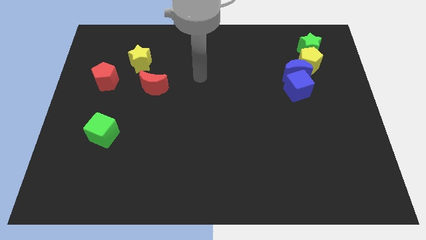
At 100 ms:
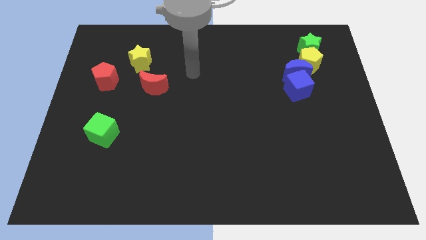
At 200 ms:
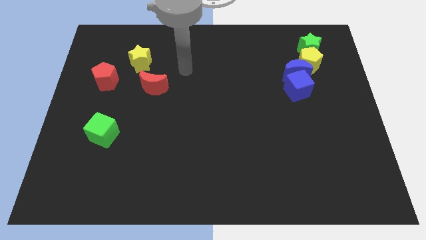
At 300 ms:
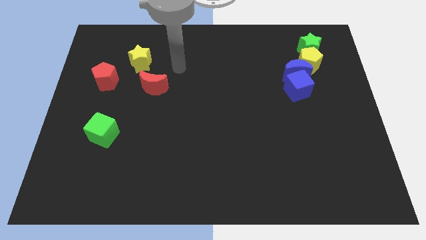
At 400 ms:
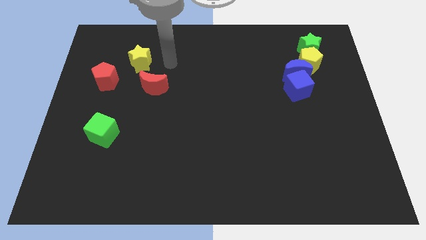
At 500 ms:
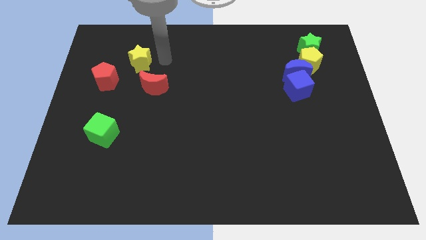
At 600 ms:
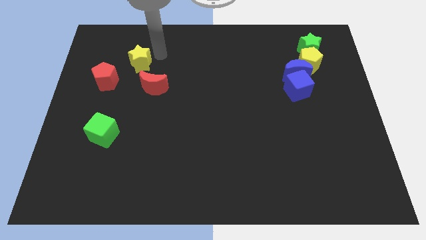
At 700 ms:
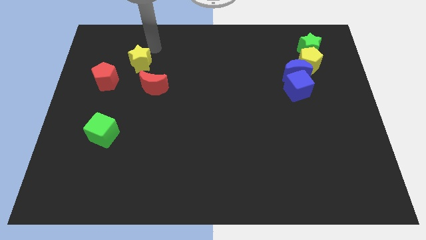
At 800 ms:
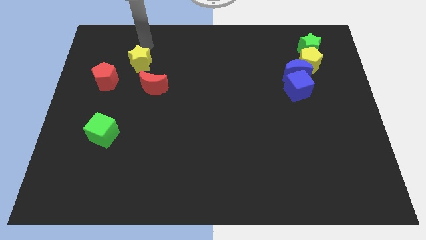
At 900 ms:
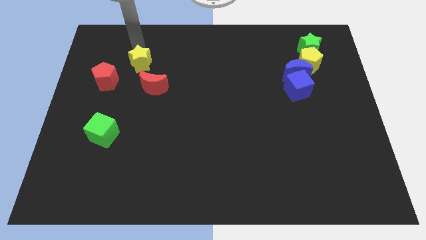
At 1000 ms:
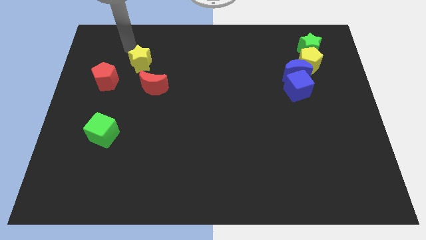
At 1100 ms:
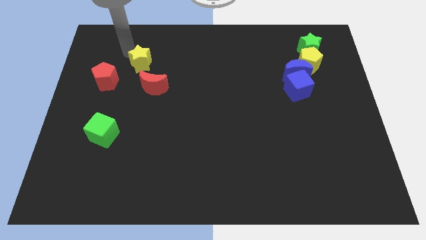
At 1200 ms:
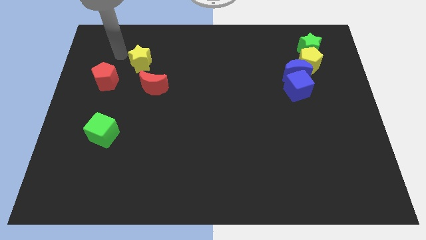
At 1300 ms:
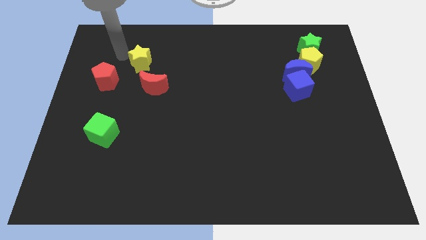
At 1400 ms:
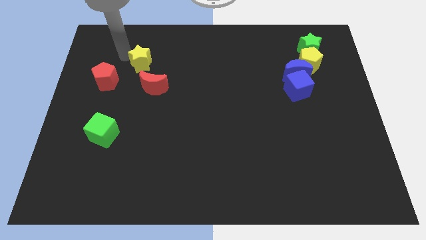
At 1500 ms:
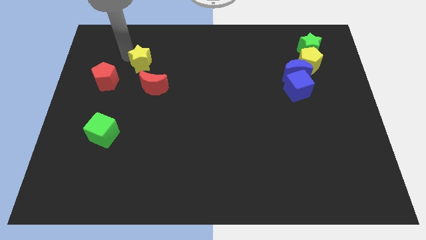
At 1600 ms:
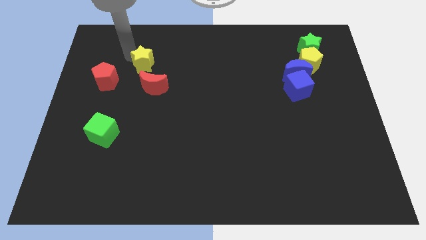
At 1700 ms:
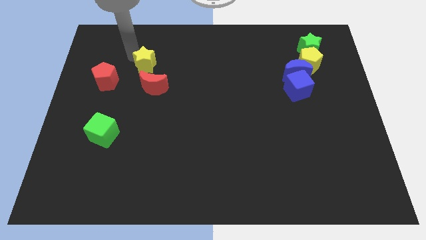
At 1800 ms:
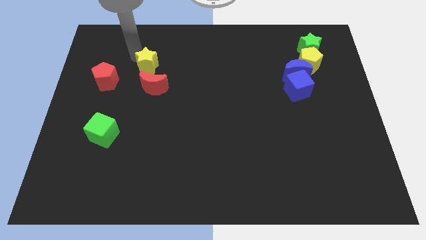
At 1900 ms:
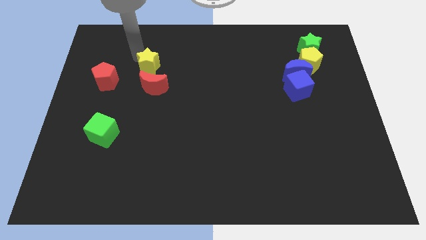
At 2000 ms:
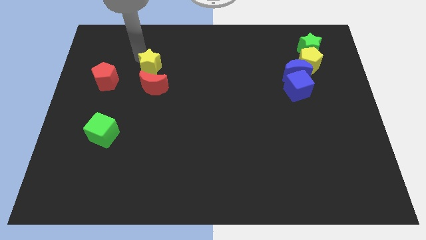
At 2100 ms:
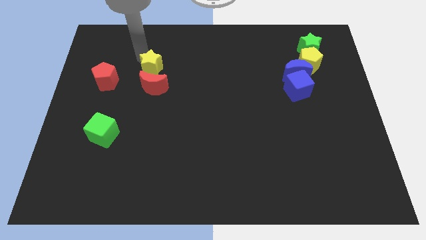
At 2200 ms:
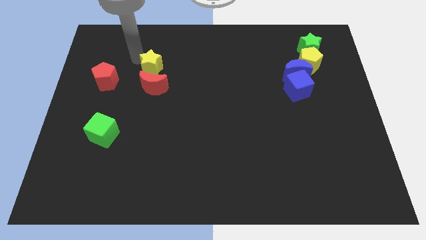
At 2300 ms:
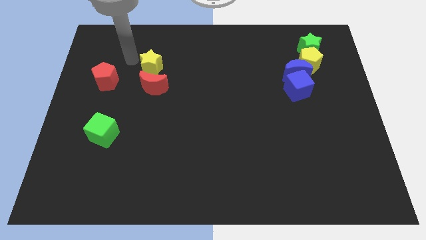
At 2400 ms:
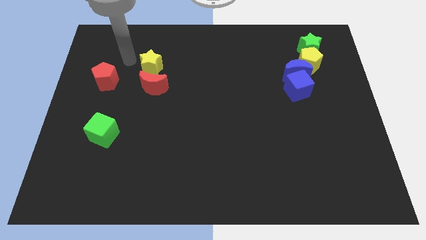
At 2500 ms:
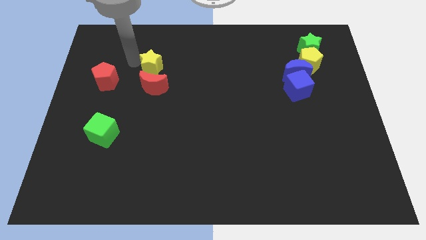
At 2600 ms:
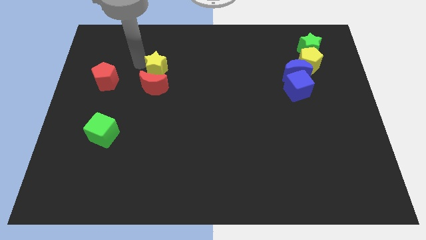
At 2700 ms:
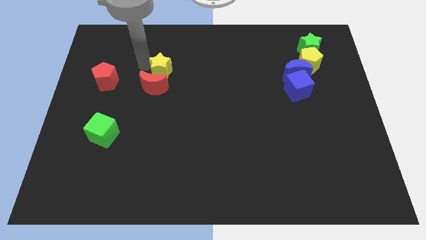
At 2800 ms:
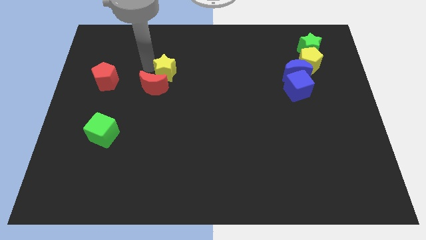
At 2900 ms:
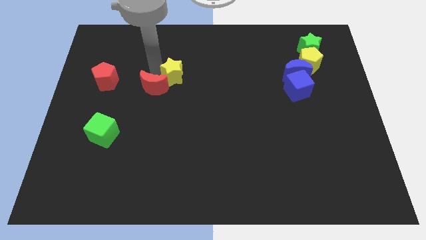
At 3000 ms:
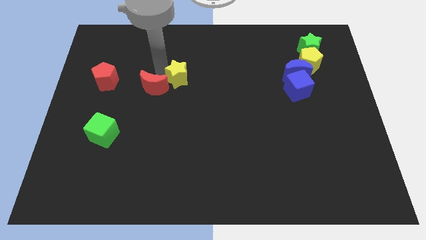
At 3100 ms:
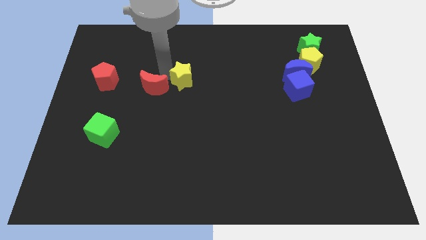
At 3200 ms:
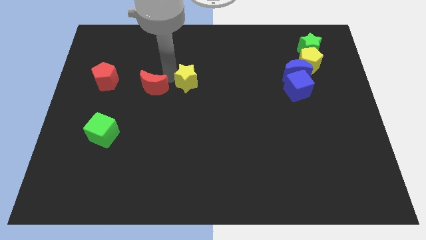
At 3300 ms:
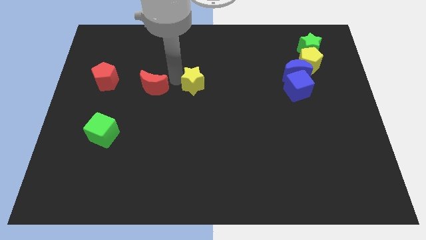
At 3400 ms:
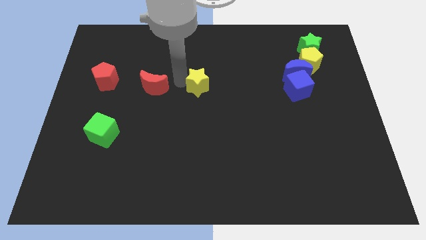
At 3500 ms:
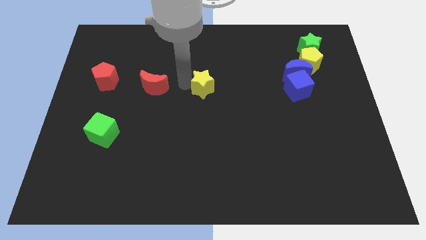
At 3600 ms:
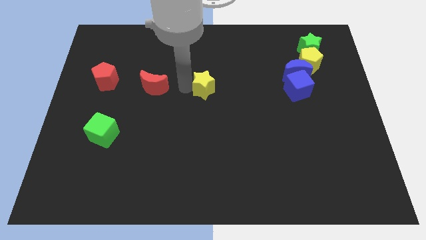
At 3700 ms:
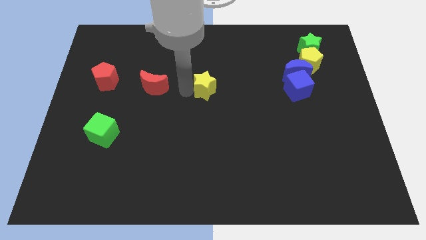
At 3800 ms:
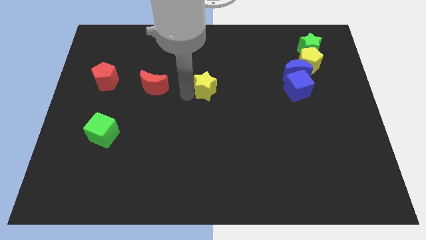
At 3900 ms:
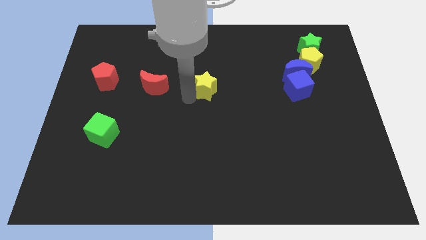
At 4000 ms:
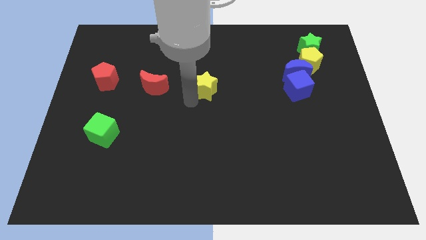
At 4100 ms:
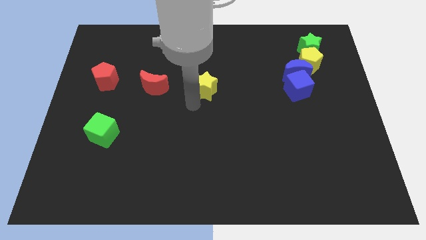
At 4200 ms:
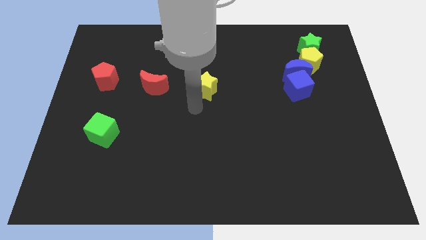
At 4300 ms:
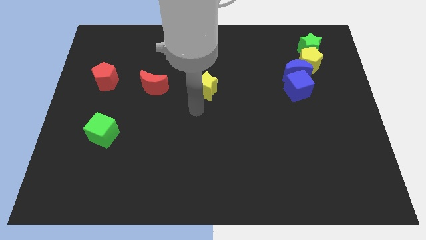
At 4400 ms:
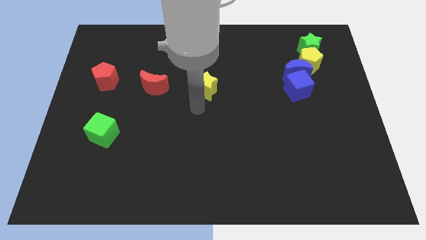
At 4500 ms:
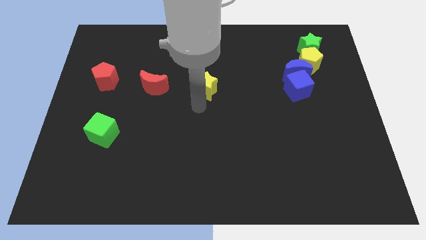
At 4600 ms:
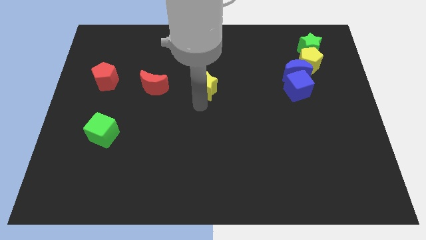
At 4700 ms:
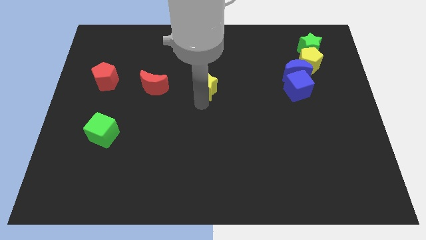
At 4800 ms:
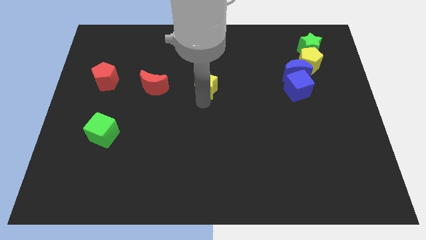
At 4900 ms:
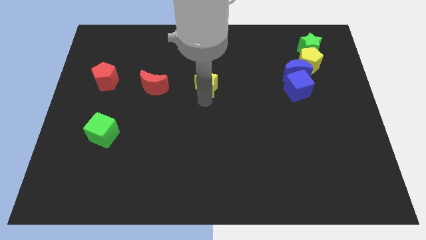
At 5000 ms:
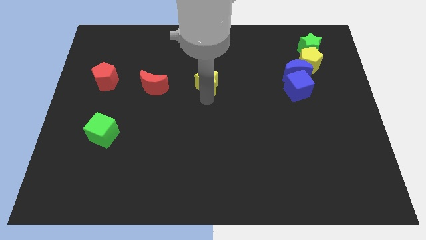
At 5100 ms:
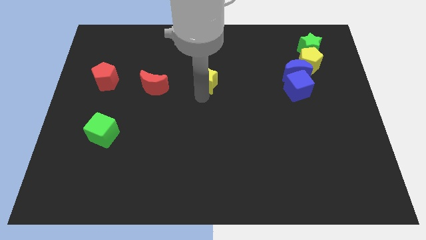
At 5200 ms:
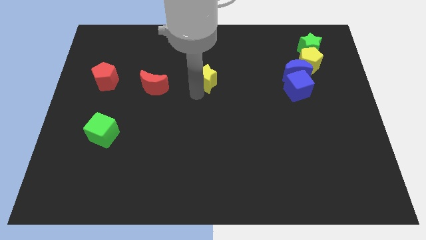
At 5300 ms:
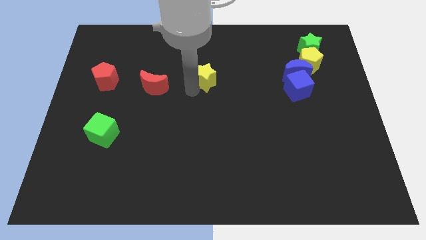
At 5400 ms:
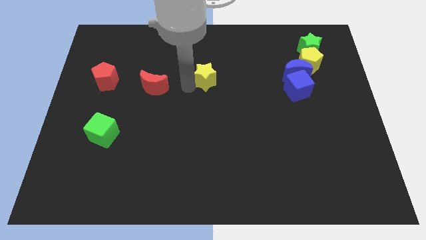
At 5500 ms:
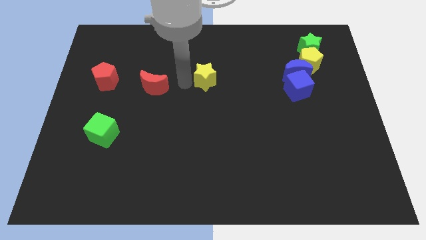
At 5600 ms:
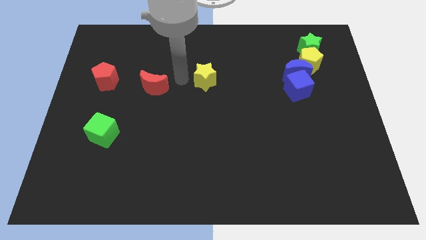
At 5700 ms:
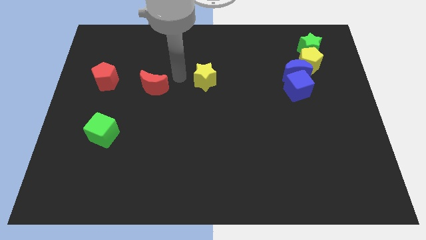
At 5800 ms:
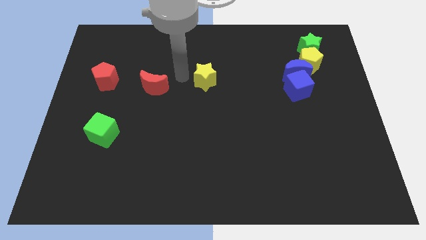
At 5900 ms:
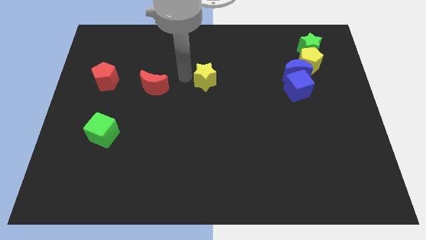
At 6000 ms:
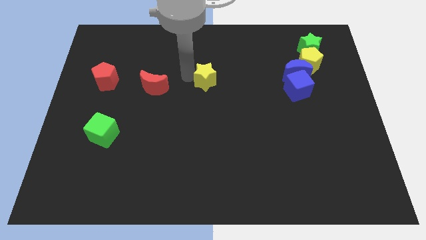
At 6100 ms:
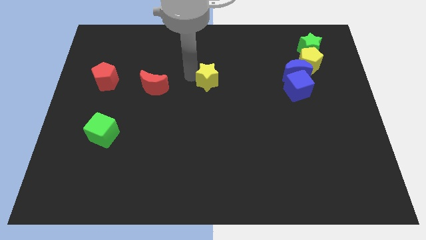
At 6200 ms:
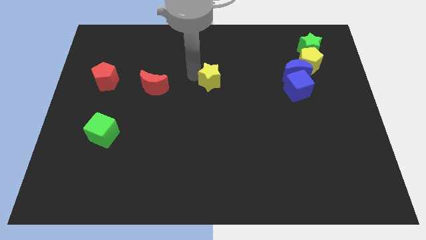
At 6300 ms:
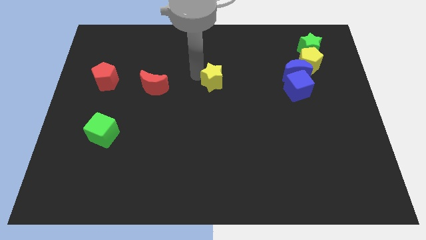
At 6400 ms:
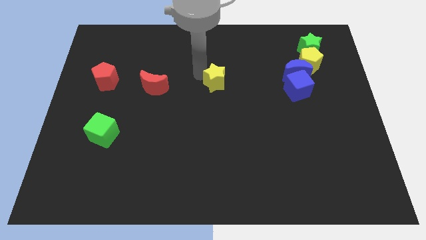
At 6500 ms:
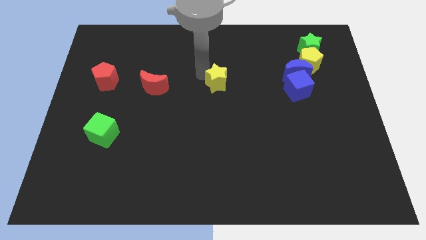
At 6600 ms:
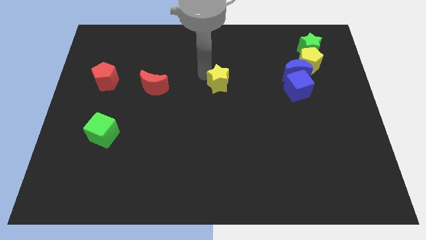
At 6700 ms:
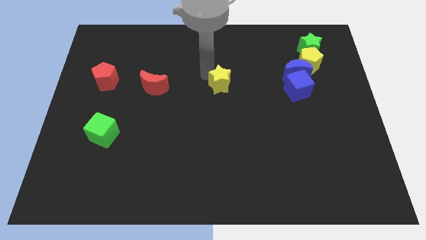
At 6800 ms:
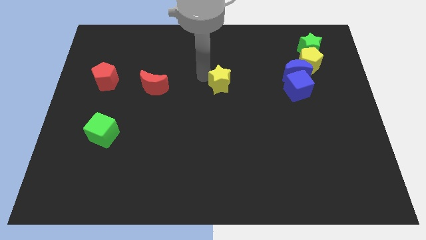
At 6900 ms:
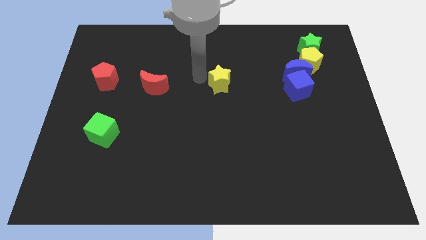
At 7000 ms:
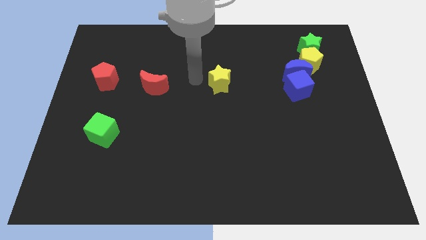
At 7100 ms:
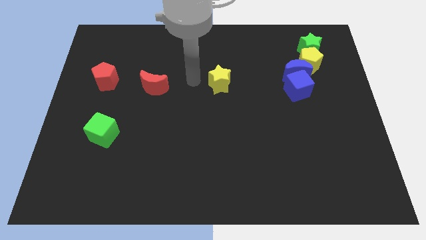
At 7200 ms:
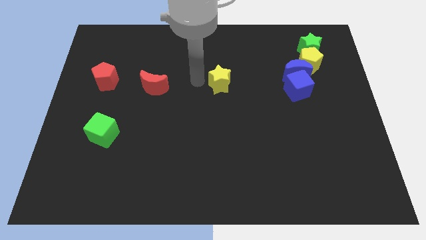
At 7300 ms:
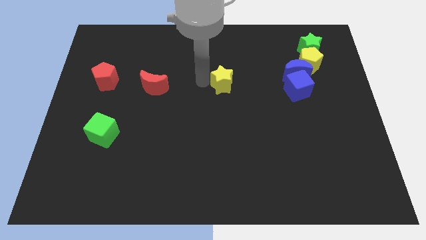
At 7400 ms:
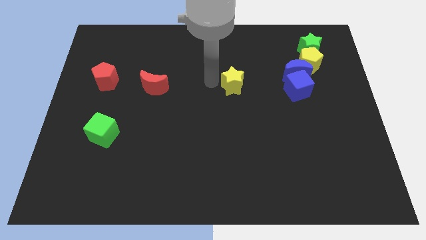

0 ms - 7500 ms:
move the yellow star just left of the blue cube
